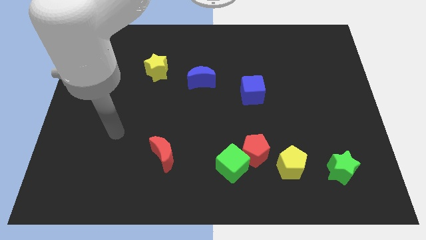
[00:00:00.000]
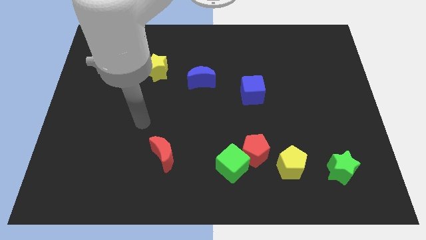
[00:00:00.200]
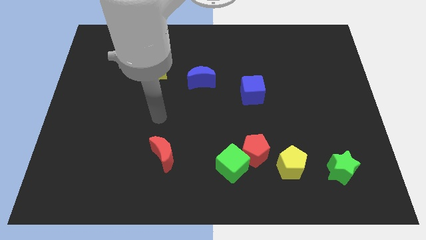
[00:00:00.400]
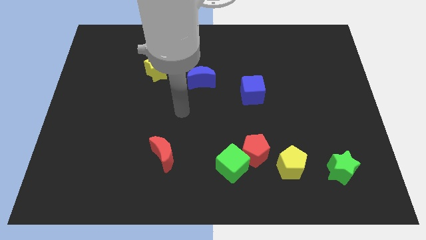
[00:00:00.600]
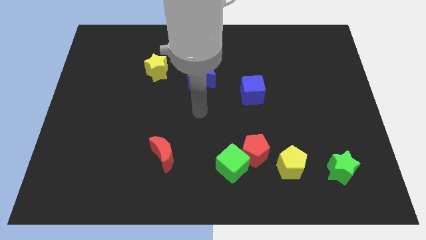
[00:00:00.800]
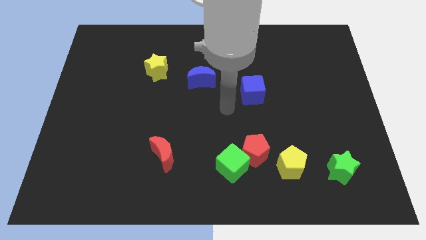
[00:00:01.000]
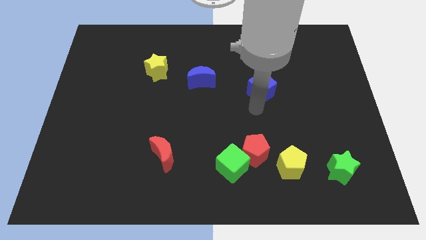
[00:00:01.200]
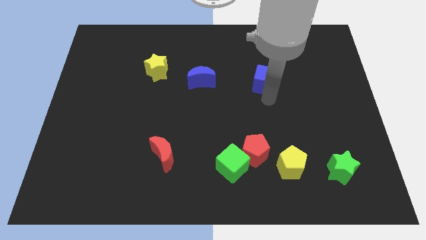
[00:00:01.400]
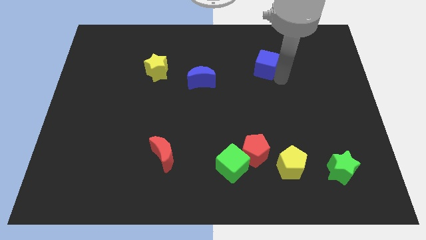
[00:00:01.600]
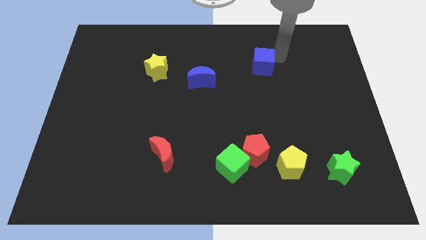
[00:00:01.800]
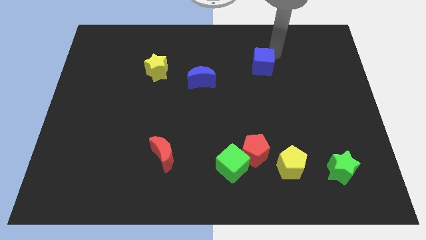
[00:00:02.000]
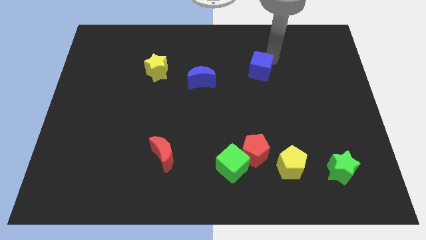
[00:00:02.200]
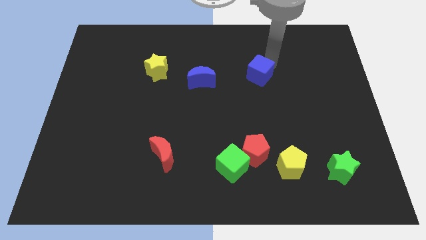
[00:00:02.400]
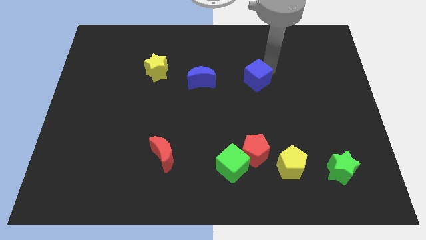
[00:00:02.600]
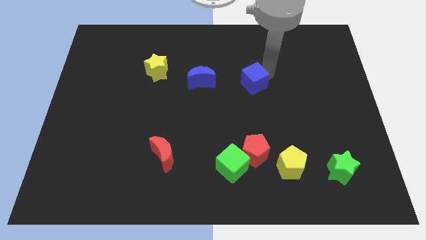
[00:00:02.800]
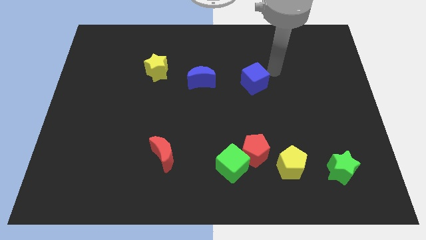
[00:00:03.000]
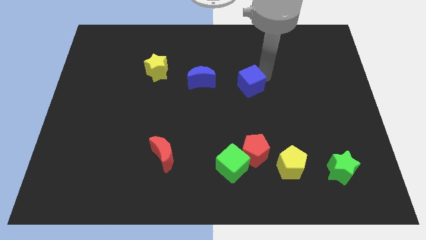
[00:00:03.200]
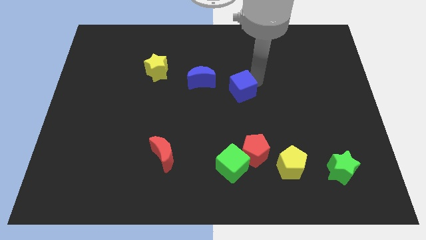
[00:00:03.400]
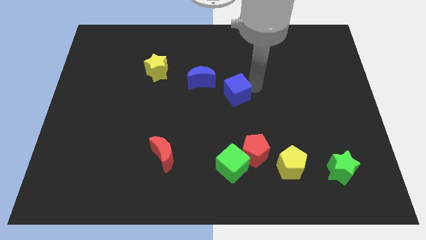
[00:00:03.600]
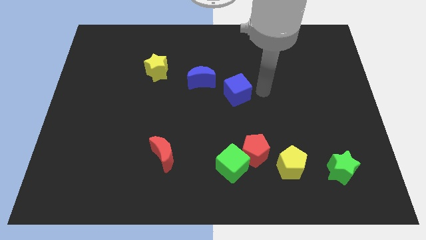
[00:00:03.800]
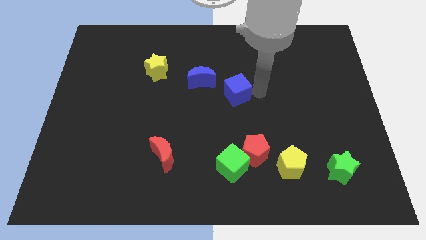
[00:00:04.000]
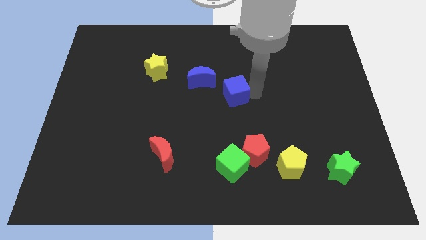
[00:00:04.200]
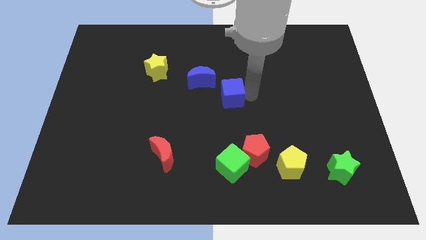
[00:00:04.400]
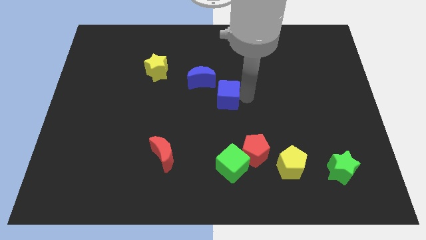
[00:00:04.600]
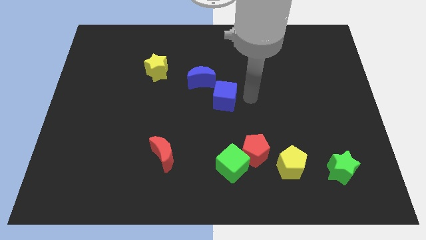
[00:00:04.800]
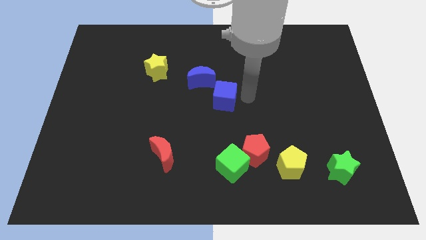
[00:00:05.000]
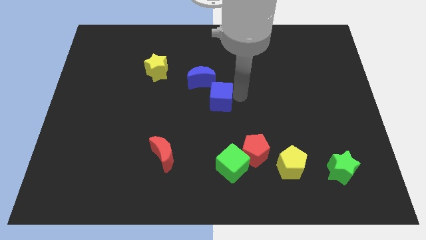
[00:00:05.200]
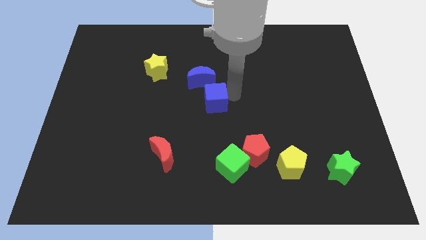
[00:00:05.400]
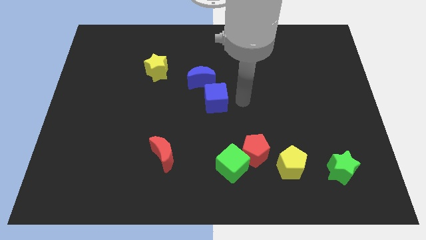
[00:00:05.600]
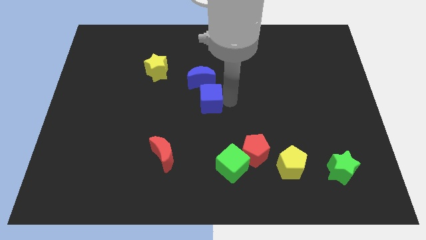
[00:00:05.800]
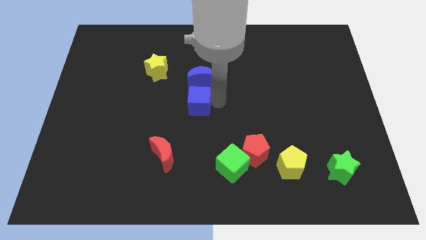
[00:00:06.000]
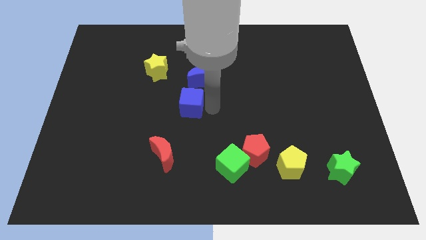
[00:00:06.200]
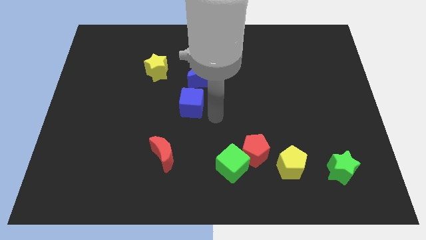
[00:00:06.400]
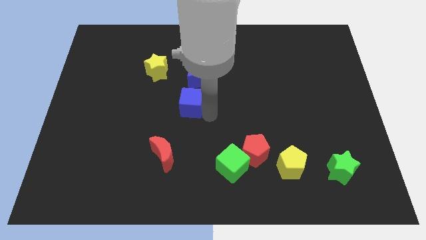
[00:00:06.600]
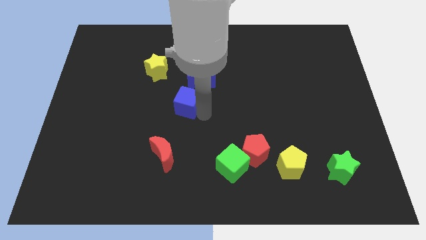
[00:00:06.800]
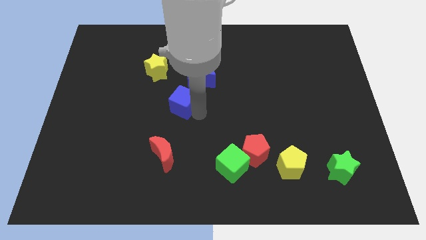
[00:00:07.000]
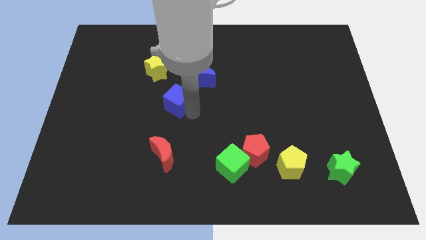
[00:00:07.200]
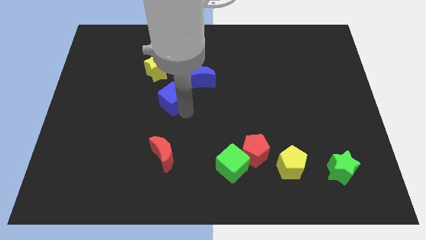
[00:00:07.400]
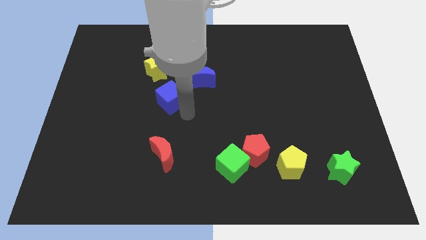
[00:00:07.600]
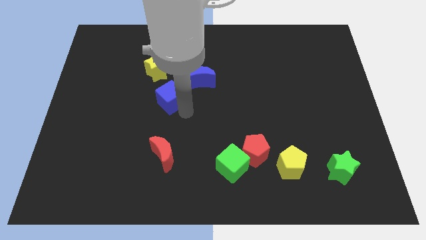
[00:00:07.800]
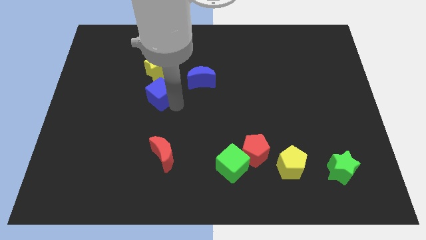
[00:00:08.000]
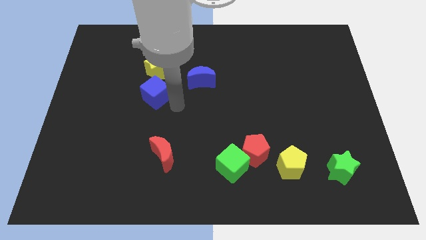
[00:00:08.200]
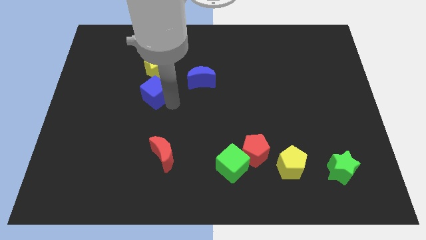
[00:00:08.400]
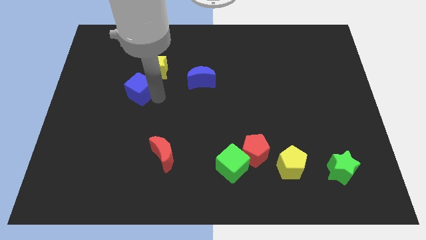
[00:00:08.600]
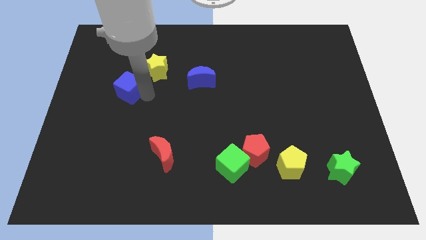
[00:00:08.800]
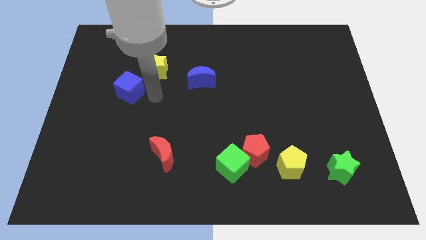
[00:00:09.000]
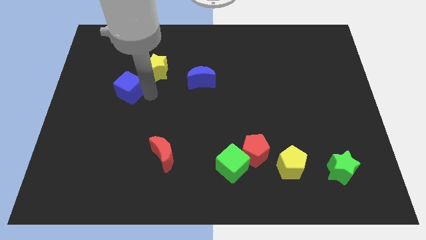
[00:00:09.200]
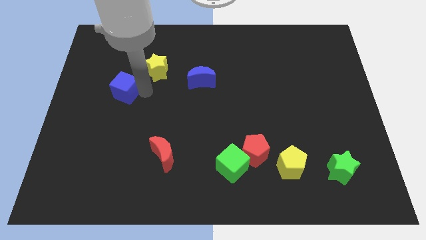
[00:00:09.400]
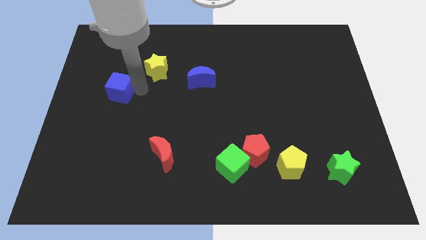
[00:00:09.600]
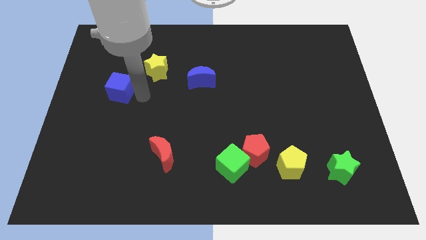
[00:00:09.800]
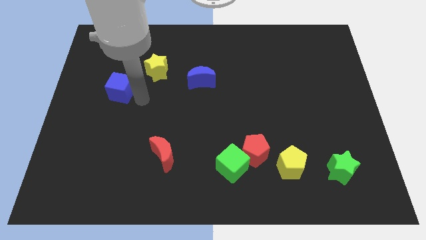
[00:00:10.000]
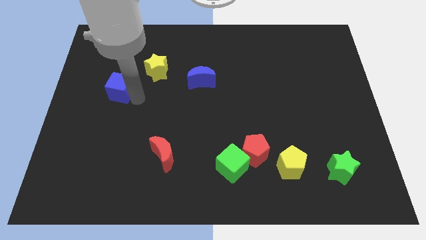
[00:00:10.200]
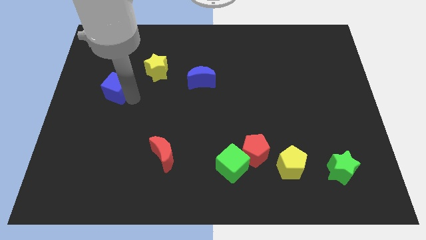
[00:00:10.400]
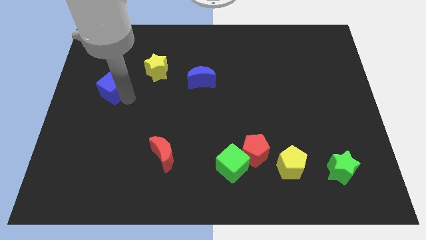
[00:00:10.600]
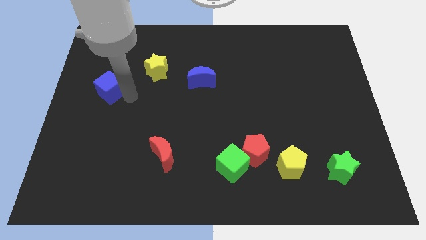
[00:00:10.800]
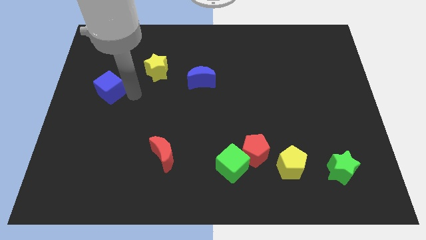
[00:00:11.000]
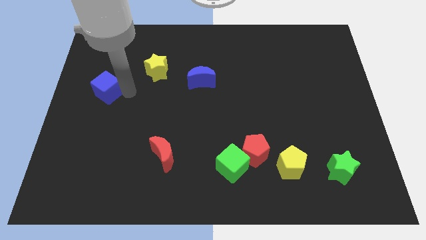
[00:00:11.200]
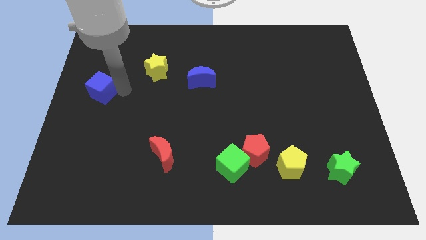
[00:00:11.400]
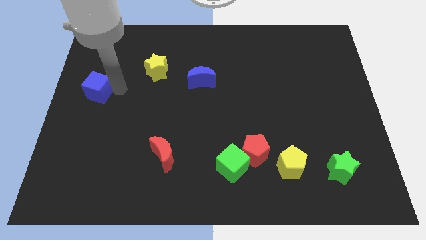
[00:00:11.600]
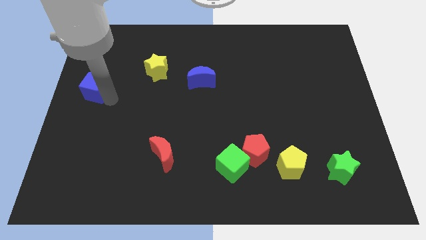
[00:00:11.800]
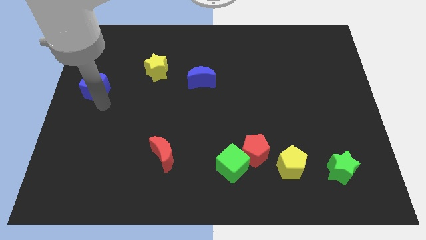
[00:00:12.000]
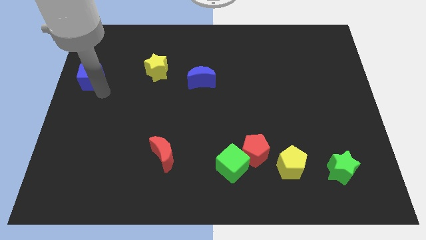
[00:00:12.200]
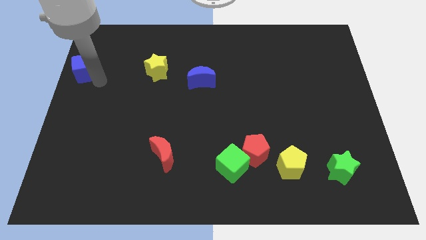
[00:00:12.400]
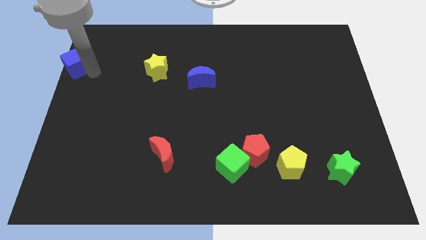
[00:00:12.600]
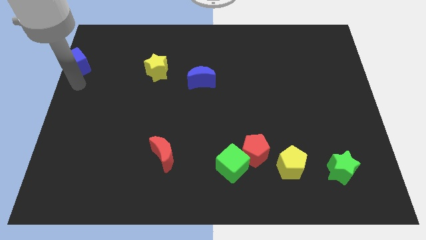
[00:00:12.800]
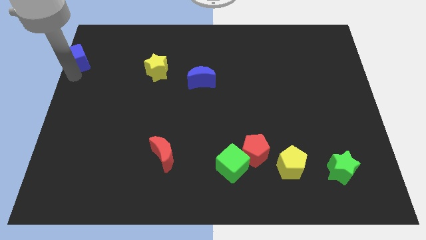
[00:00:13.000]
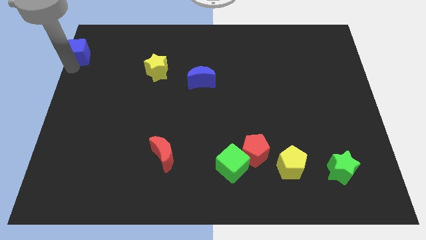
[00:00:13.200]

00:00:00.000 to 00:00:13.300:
slide the blue cube to the top left corner

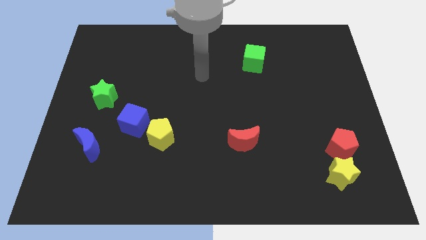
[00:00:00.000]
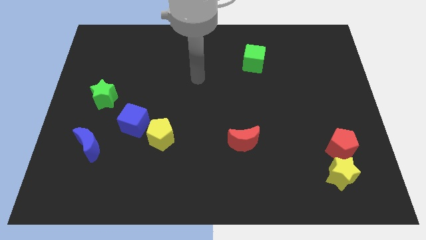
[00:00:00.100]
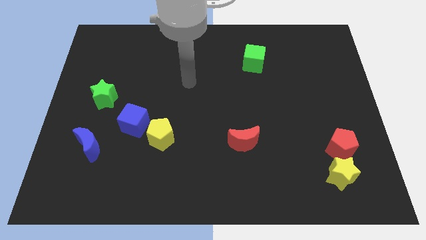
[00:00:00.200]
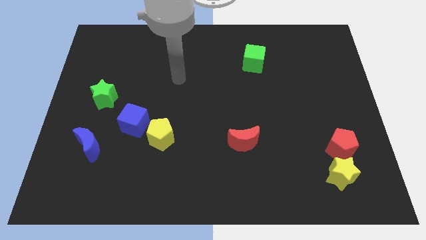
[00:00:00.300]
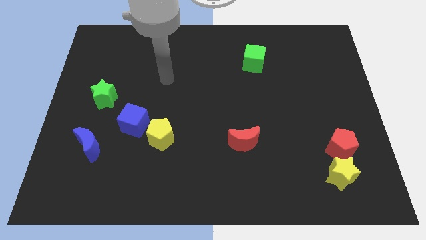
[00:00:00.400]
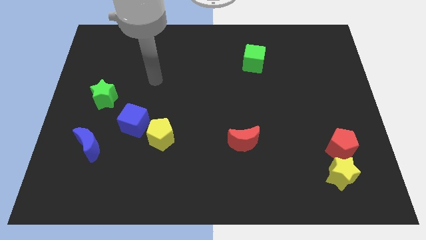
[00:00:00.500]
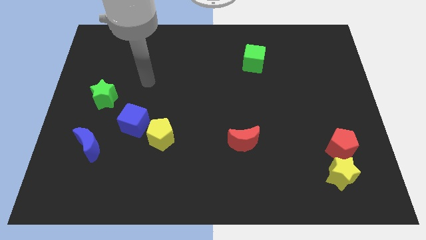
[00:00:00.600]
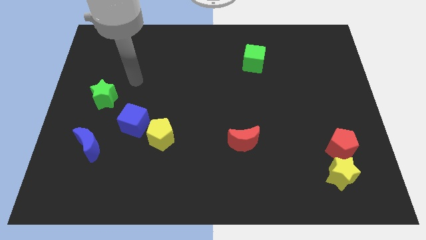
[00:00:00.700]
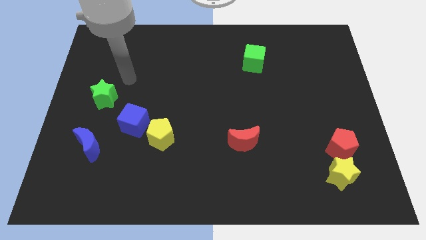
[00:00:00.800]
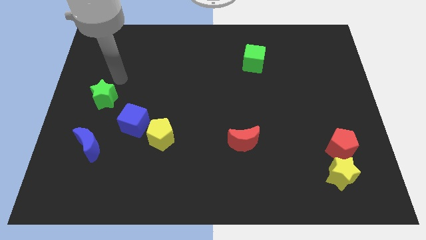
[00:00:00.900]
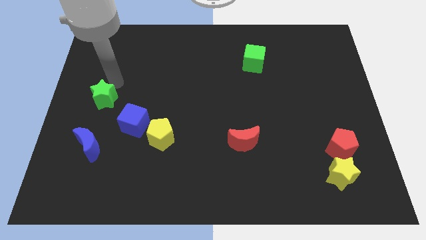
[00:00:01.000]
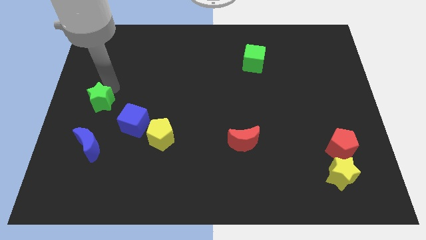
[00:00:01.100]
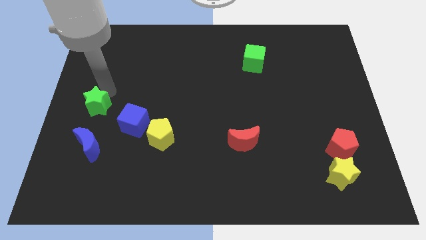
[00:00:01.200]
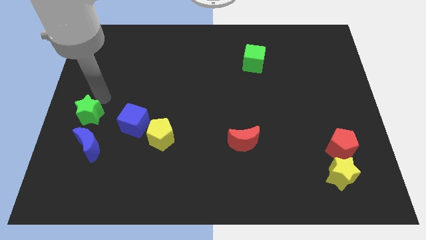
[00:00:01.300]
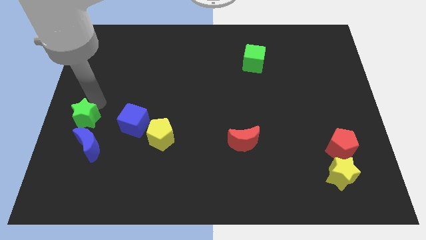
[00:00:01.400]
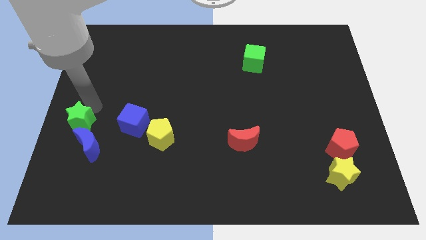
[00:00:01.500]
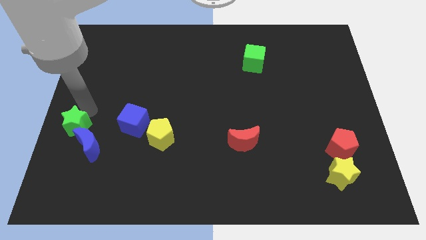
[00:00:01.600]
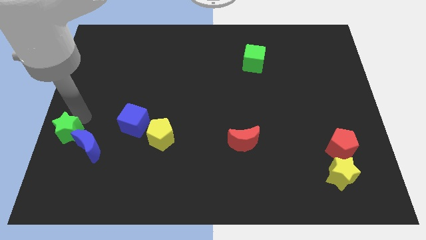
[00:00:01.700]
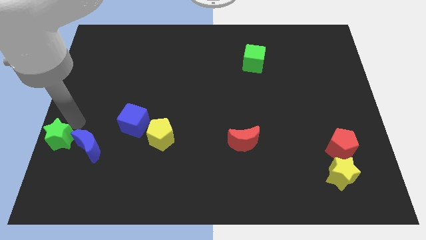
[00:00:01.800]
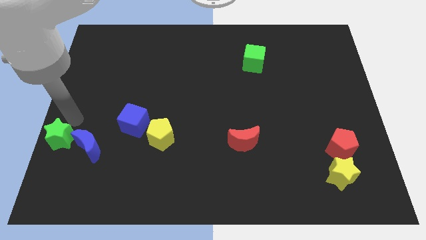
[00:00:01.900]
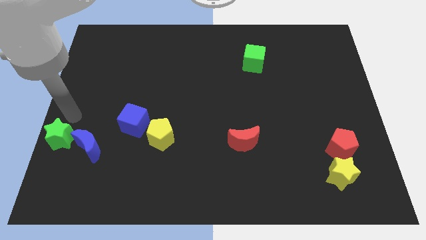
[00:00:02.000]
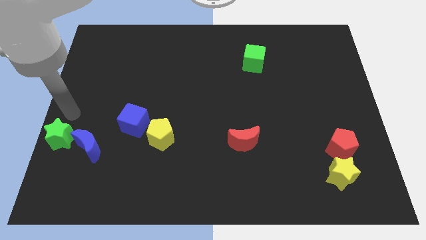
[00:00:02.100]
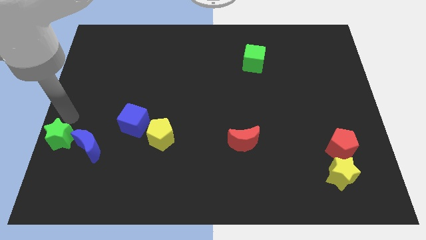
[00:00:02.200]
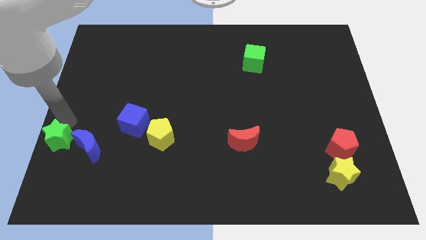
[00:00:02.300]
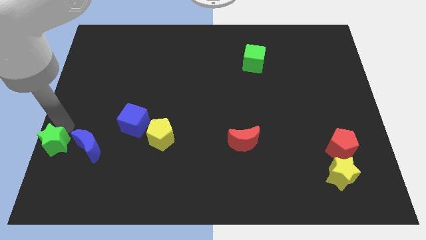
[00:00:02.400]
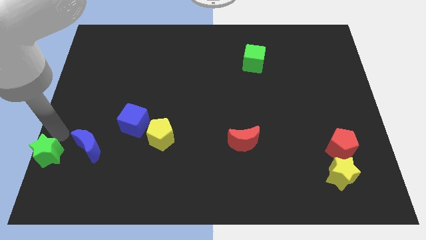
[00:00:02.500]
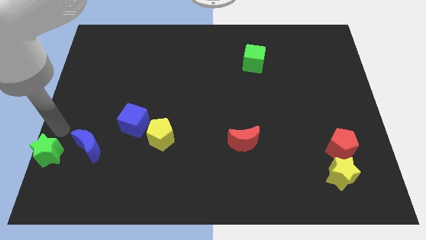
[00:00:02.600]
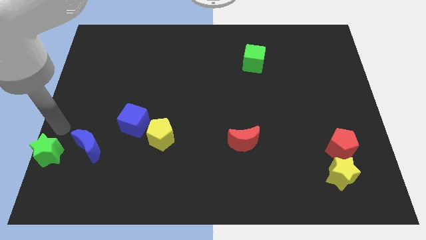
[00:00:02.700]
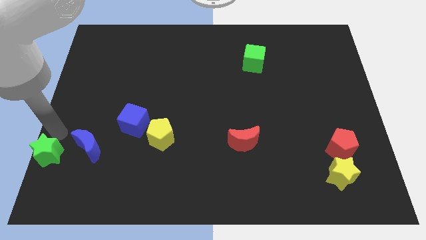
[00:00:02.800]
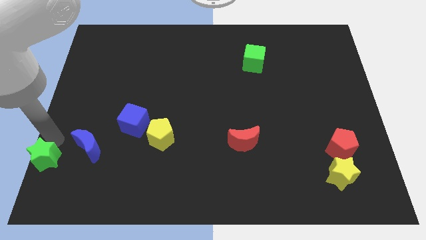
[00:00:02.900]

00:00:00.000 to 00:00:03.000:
move the green star to the bottom left
